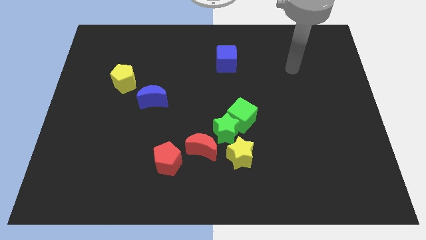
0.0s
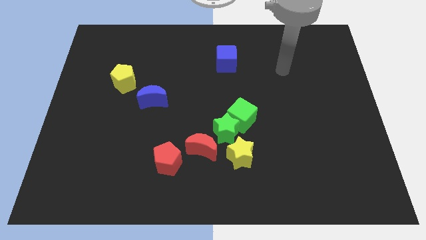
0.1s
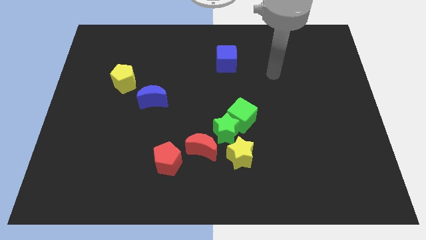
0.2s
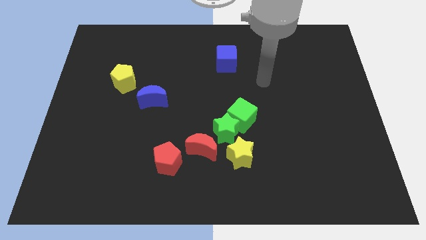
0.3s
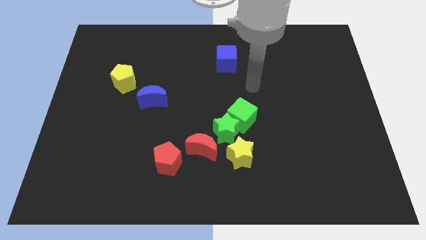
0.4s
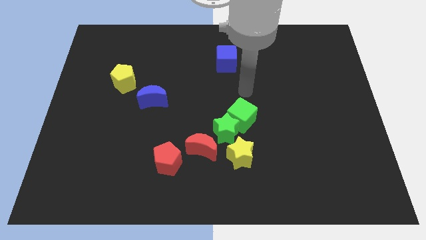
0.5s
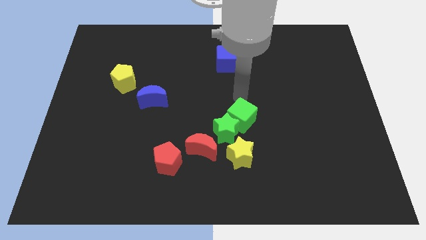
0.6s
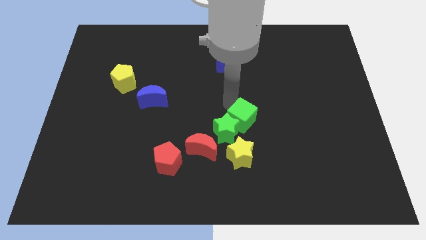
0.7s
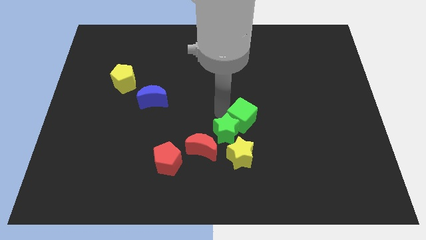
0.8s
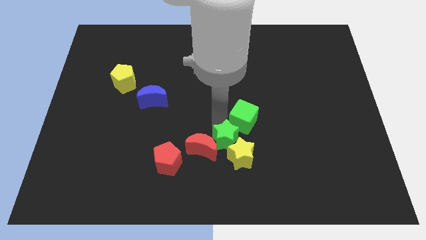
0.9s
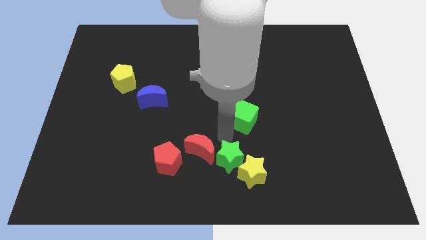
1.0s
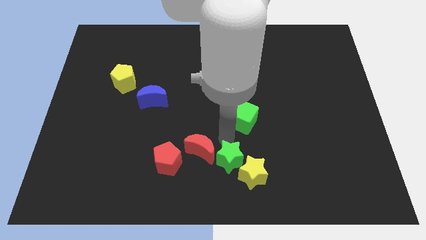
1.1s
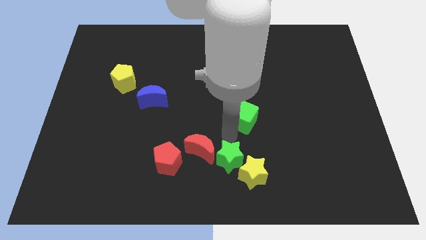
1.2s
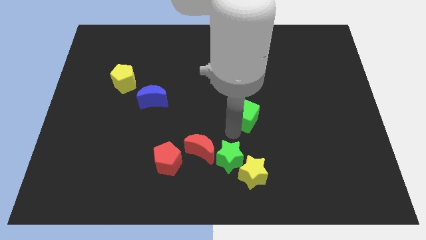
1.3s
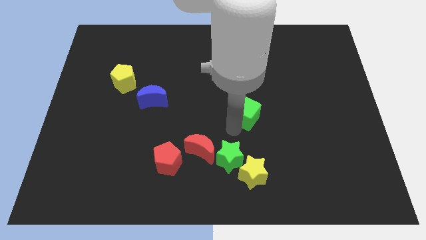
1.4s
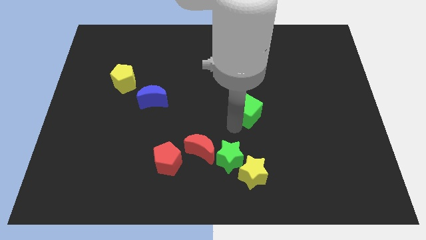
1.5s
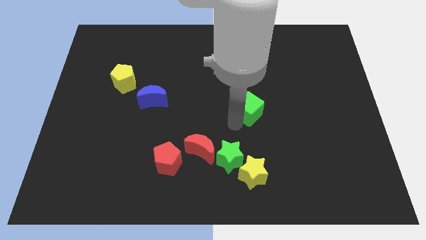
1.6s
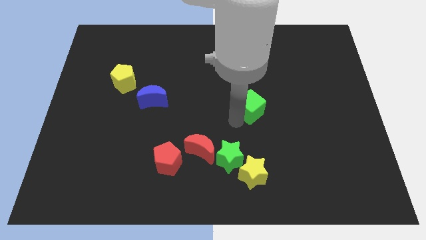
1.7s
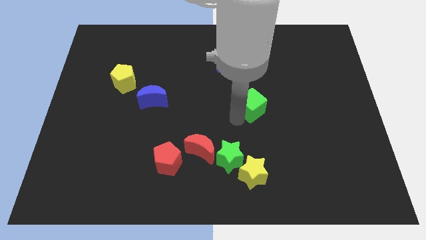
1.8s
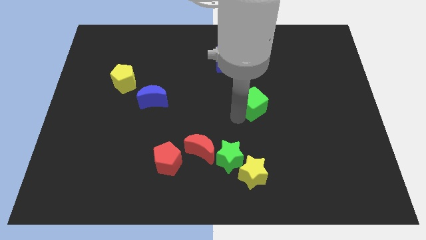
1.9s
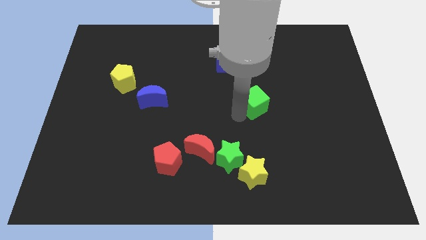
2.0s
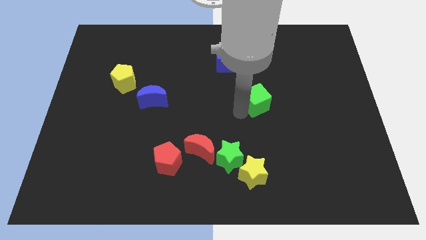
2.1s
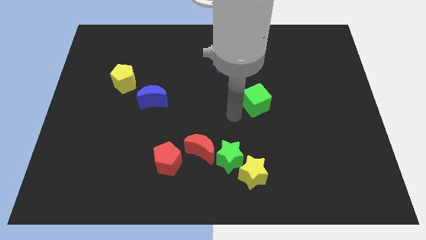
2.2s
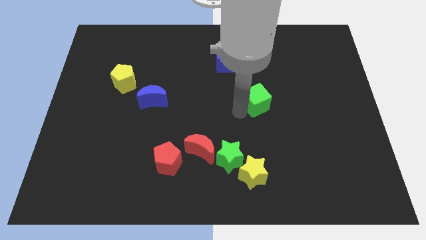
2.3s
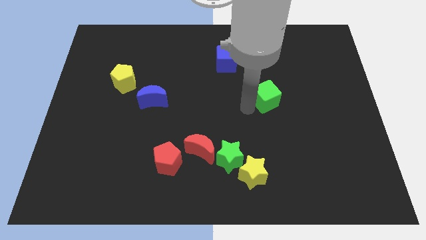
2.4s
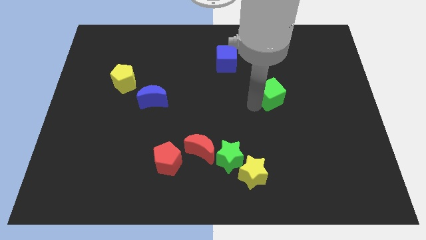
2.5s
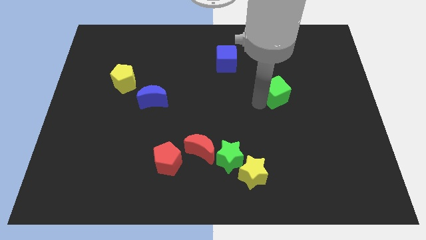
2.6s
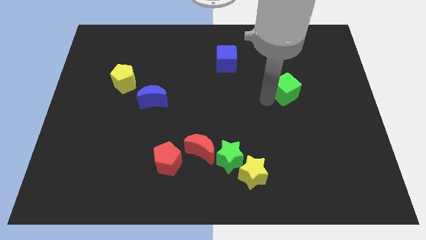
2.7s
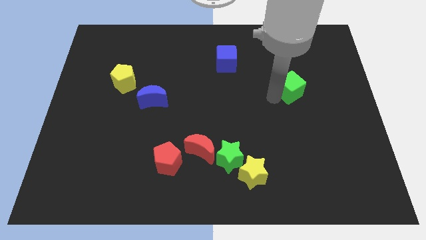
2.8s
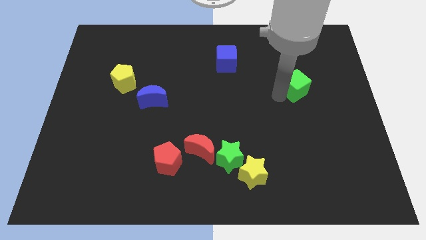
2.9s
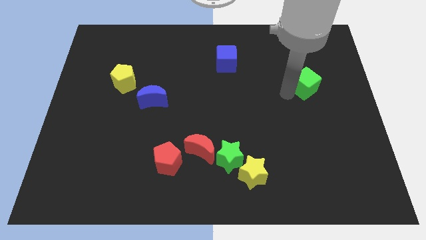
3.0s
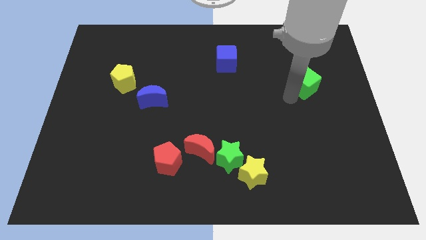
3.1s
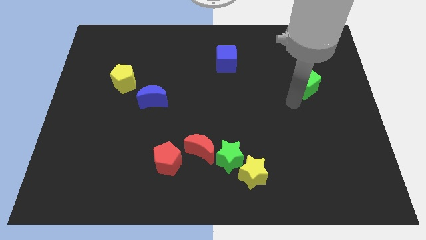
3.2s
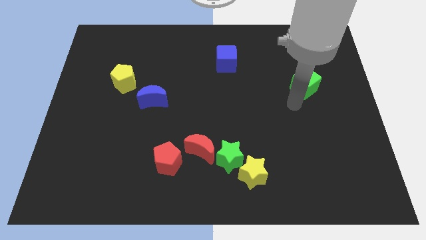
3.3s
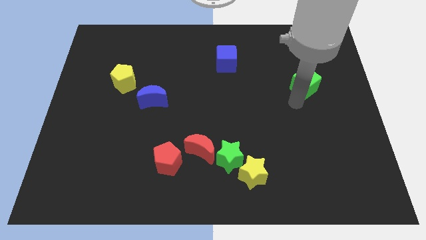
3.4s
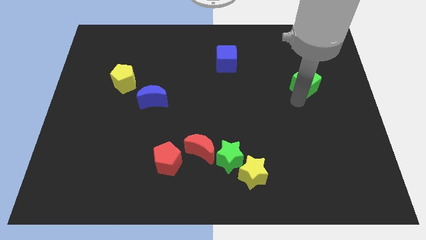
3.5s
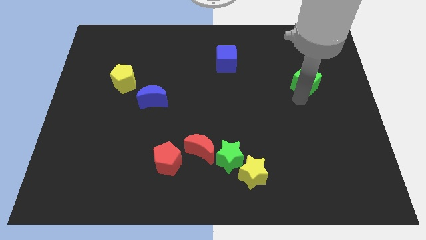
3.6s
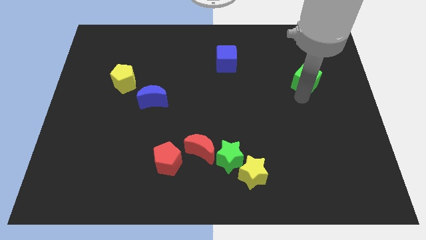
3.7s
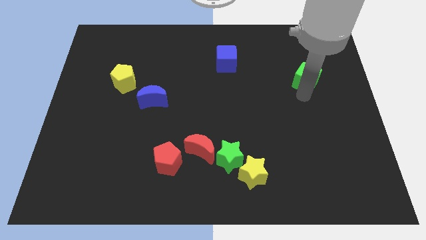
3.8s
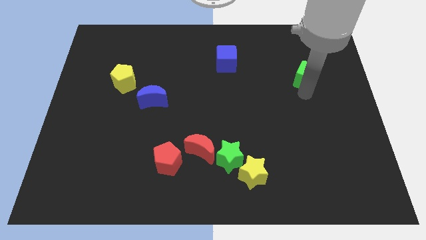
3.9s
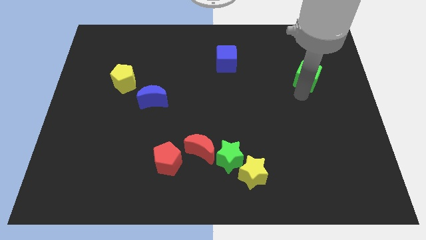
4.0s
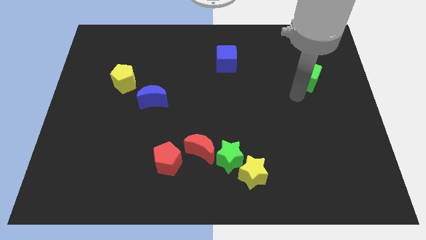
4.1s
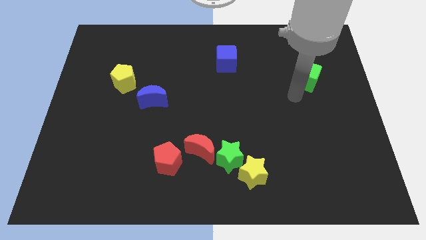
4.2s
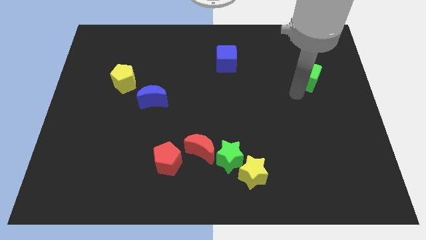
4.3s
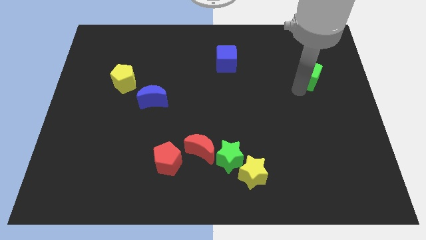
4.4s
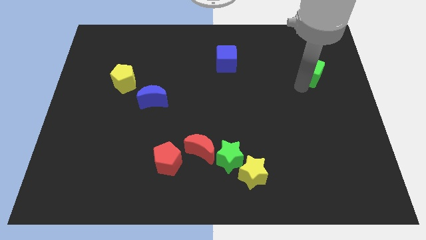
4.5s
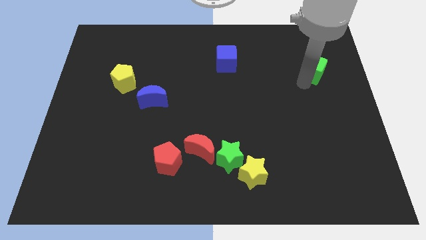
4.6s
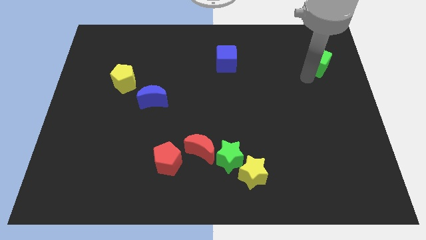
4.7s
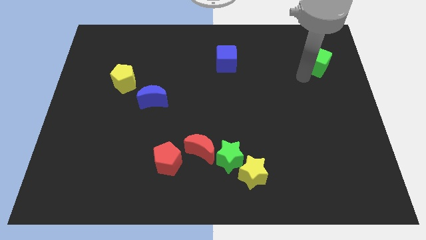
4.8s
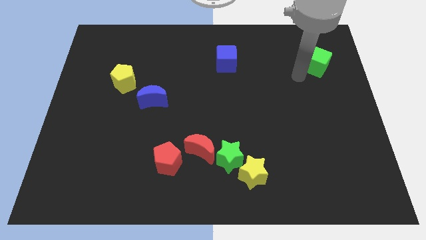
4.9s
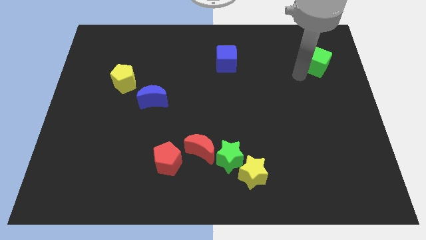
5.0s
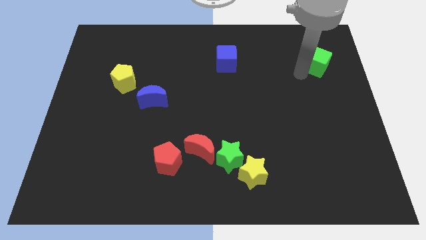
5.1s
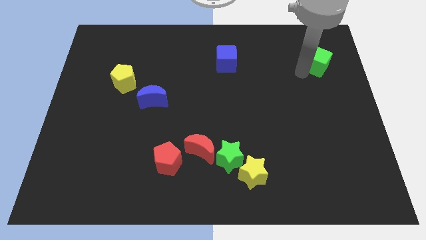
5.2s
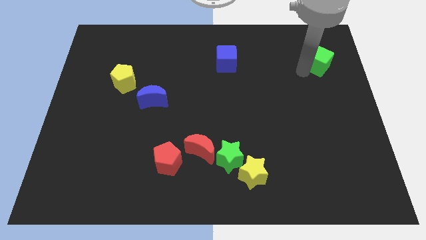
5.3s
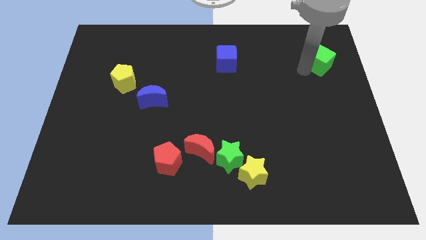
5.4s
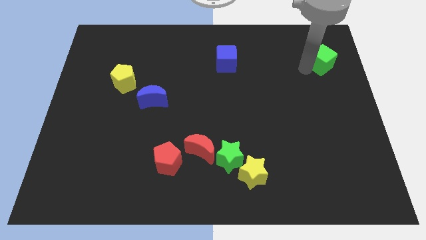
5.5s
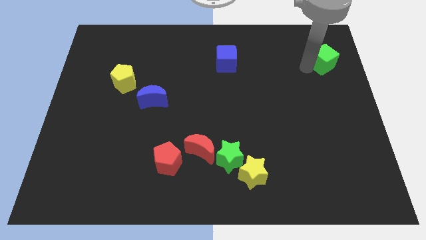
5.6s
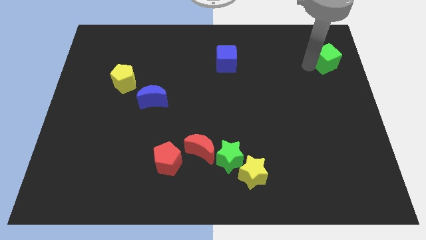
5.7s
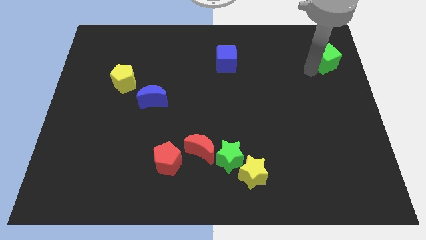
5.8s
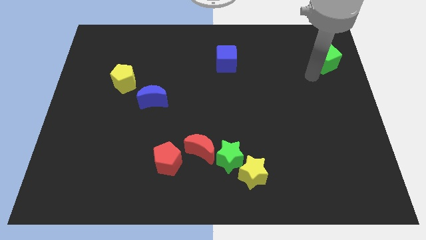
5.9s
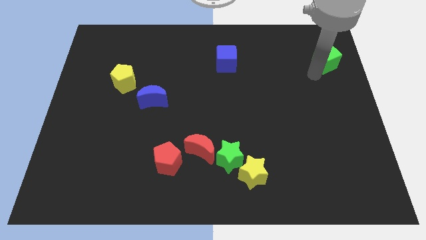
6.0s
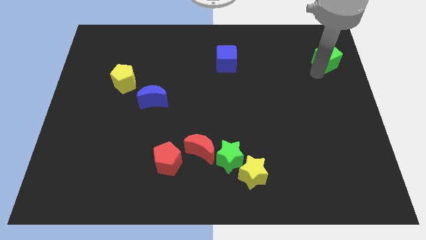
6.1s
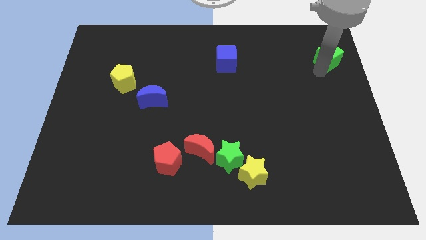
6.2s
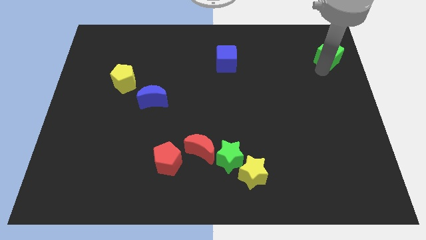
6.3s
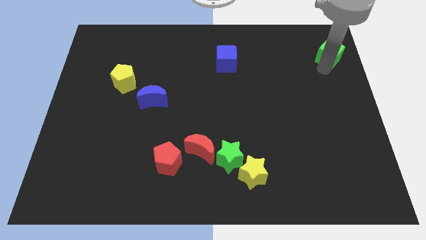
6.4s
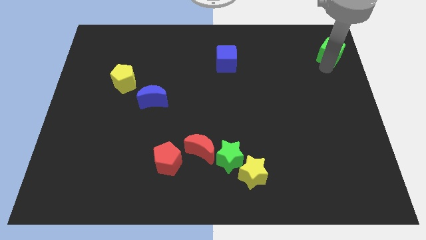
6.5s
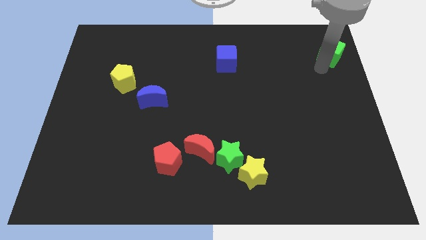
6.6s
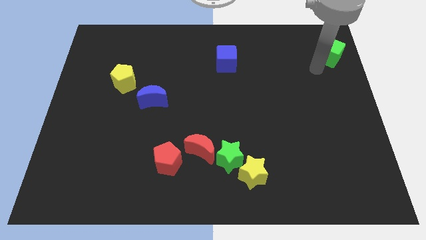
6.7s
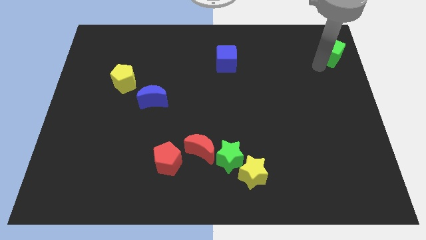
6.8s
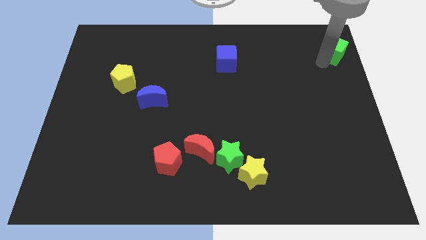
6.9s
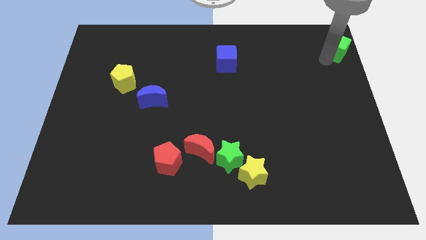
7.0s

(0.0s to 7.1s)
move the green cube to the top right
